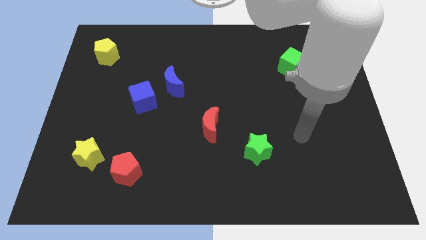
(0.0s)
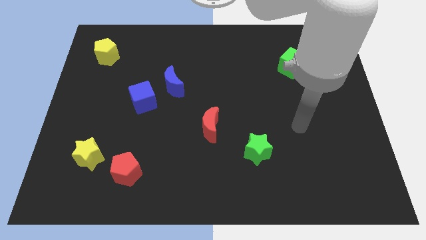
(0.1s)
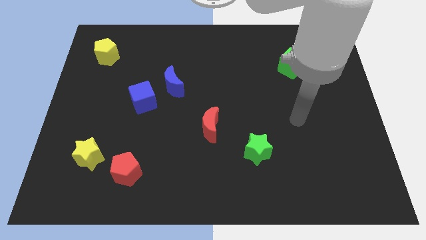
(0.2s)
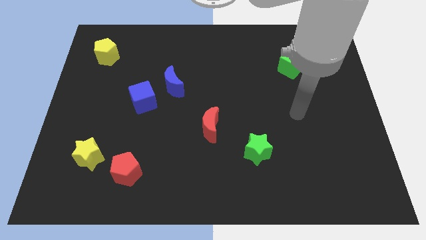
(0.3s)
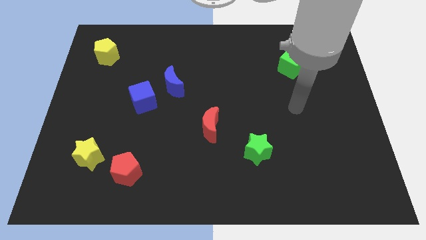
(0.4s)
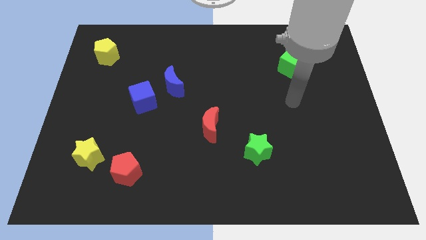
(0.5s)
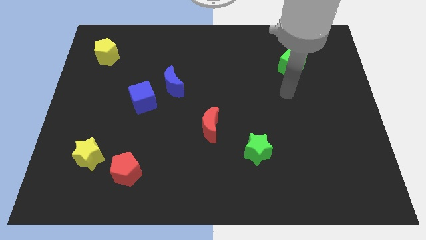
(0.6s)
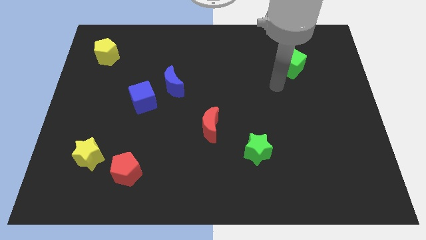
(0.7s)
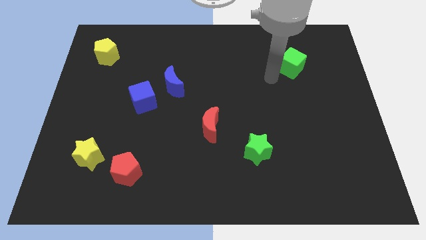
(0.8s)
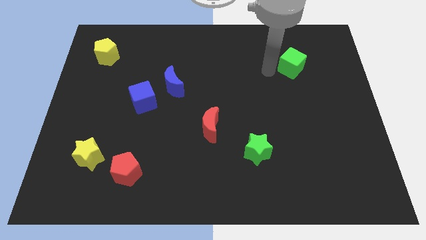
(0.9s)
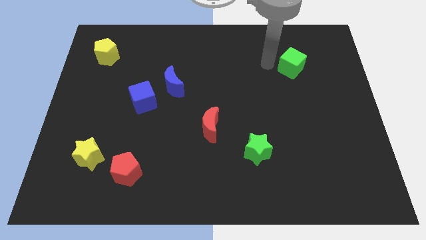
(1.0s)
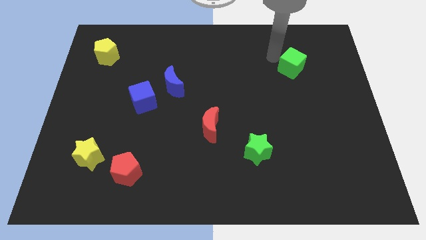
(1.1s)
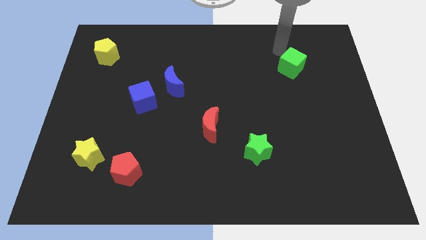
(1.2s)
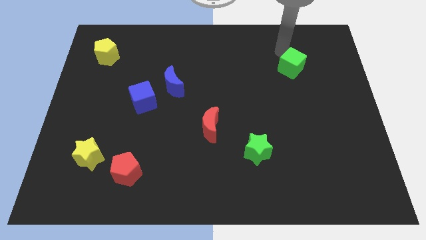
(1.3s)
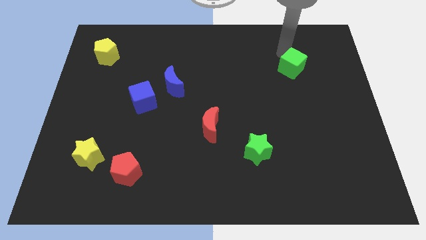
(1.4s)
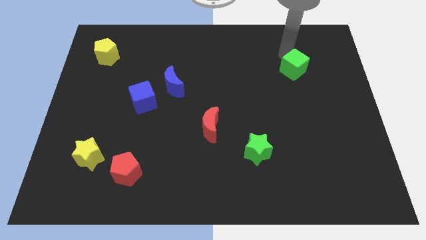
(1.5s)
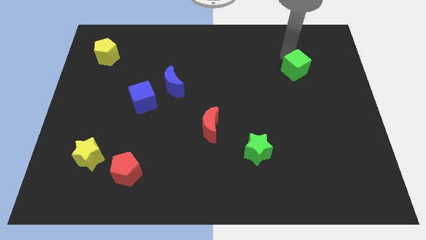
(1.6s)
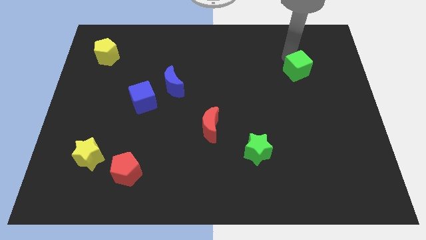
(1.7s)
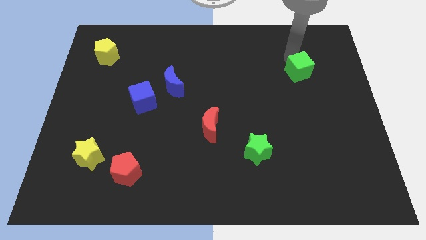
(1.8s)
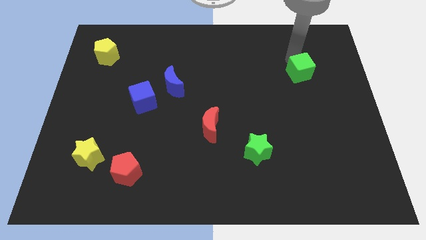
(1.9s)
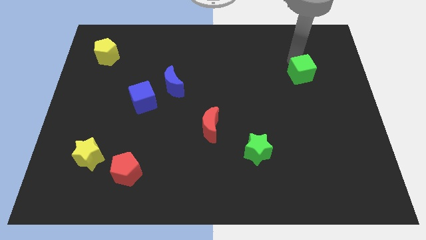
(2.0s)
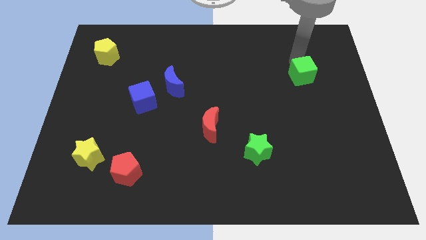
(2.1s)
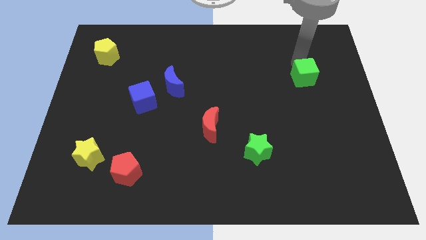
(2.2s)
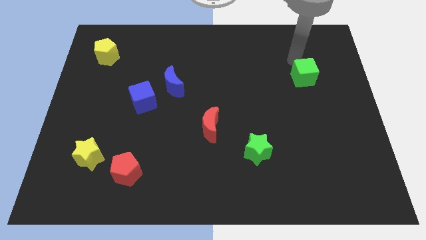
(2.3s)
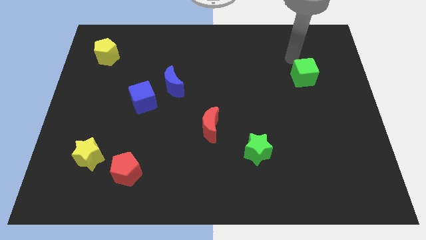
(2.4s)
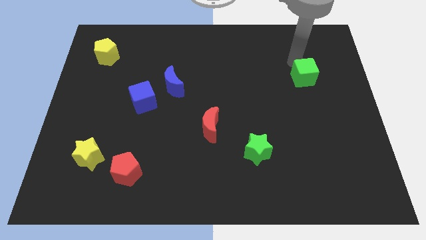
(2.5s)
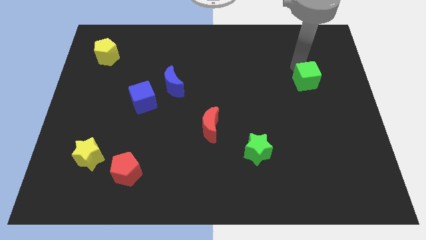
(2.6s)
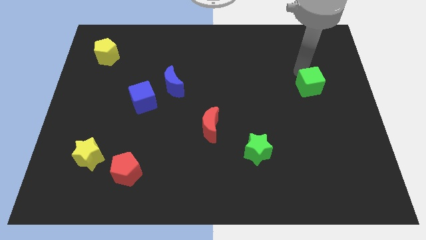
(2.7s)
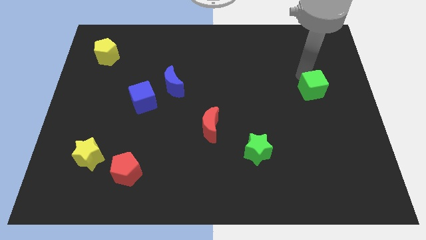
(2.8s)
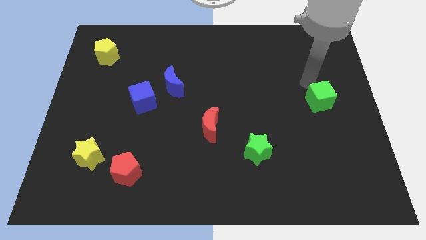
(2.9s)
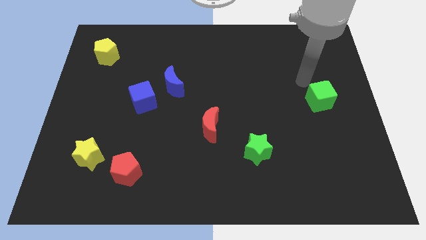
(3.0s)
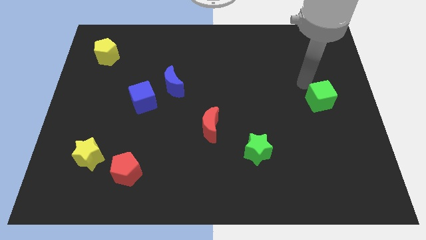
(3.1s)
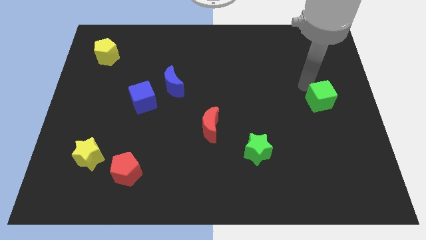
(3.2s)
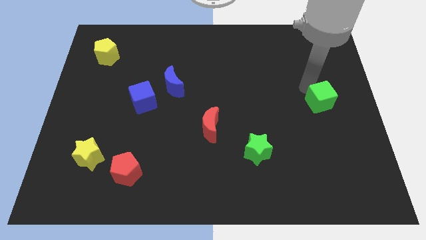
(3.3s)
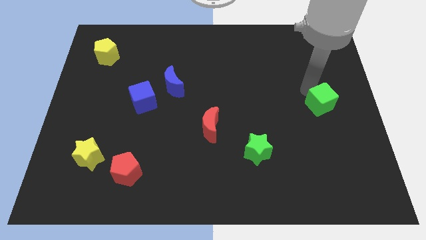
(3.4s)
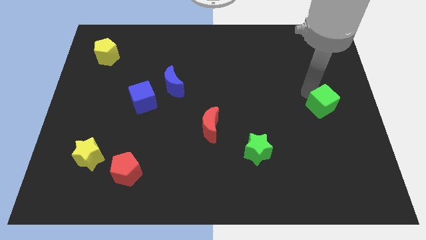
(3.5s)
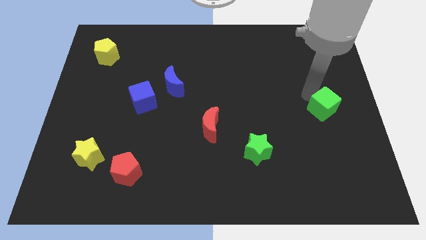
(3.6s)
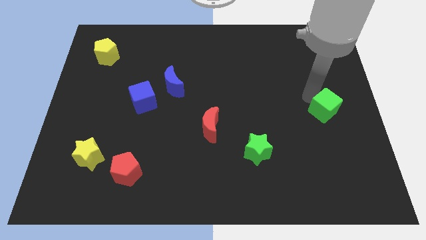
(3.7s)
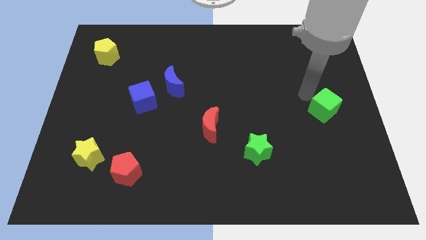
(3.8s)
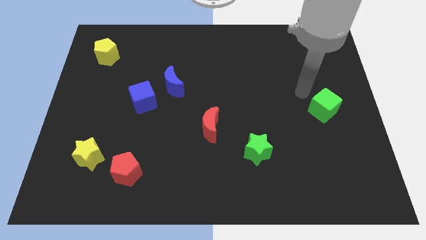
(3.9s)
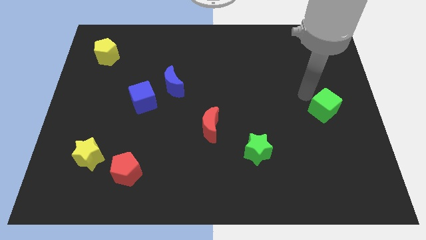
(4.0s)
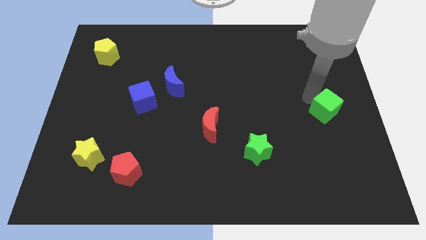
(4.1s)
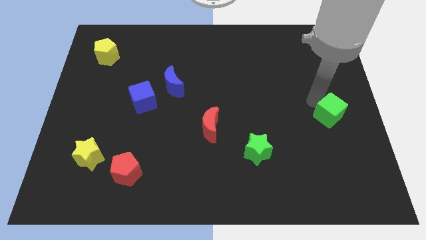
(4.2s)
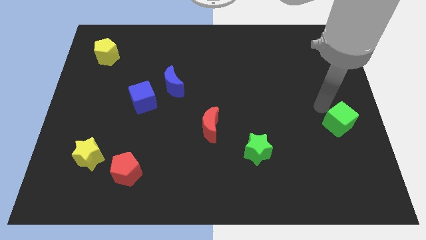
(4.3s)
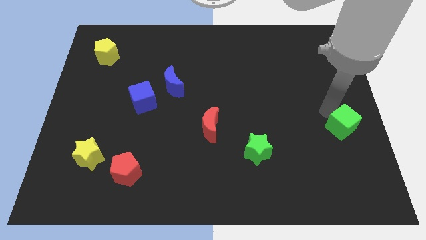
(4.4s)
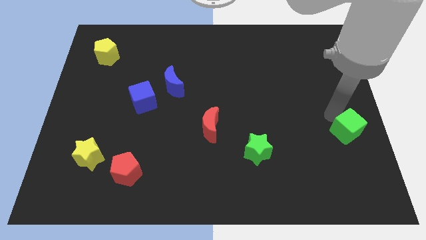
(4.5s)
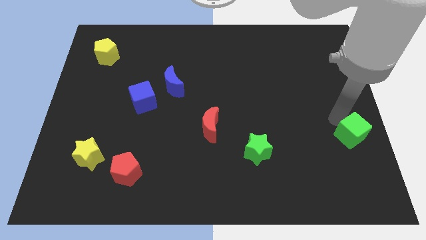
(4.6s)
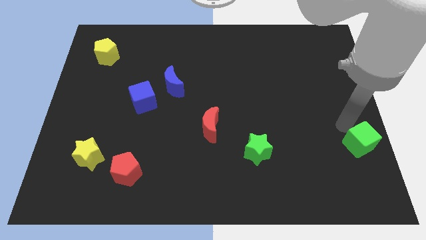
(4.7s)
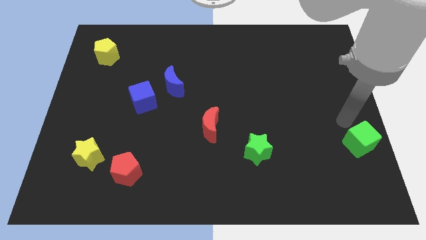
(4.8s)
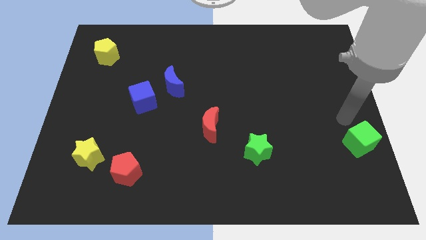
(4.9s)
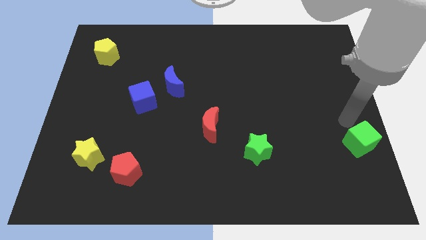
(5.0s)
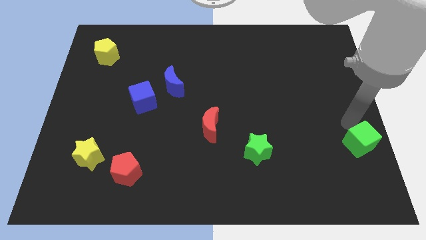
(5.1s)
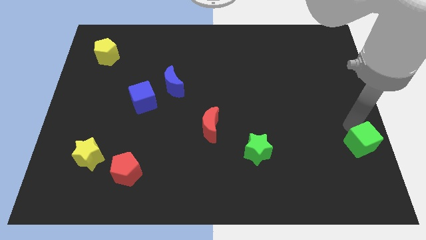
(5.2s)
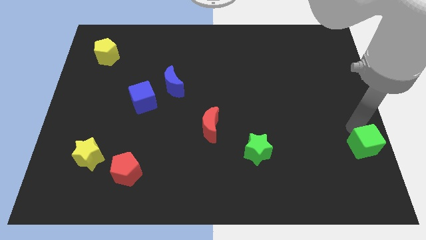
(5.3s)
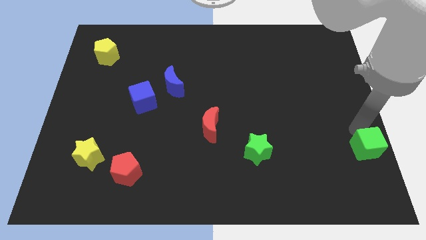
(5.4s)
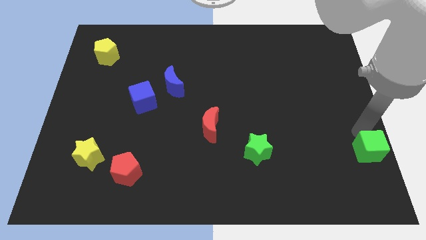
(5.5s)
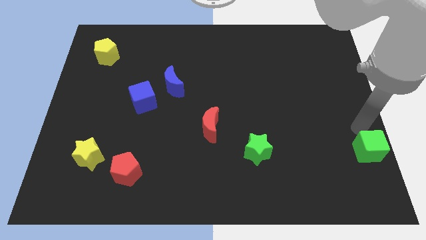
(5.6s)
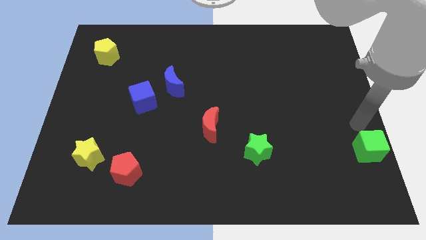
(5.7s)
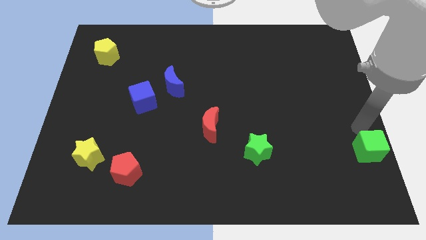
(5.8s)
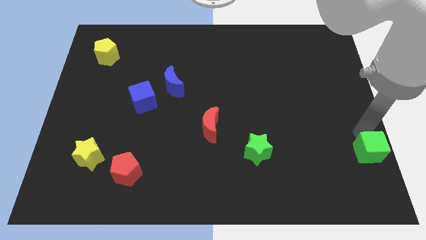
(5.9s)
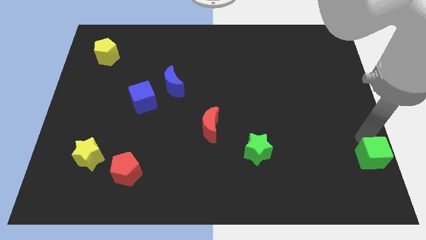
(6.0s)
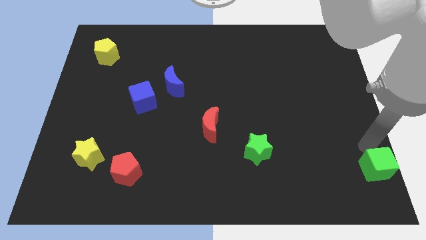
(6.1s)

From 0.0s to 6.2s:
push the green cube to the bottom right corner
